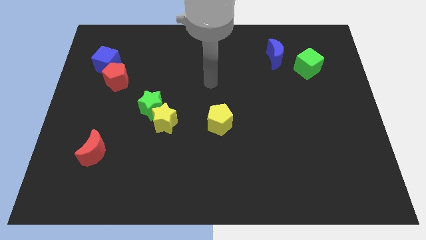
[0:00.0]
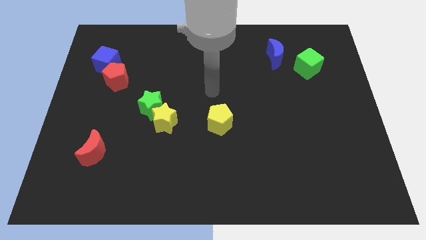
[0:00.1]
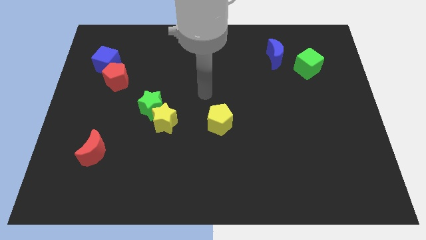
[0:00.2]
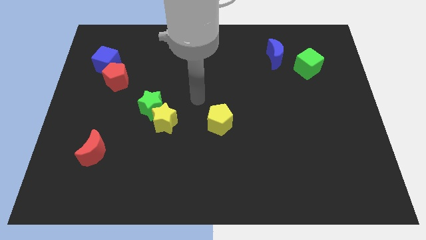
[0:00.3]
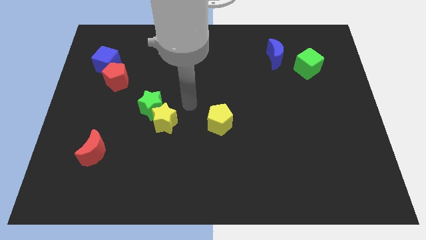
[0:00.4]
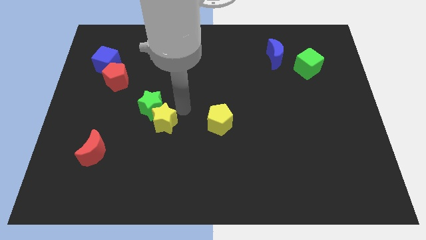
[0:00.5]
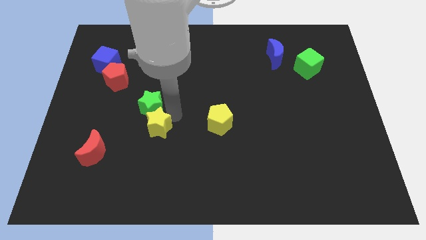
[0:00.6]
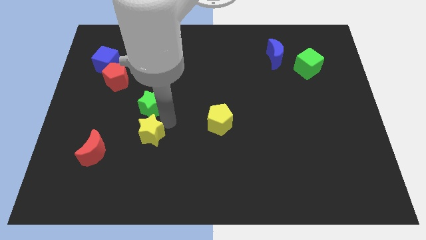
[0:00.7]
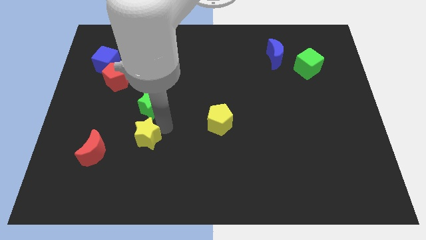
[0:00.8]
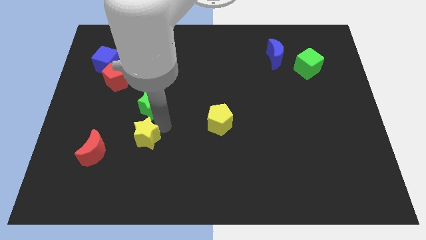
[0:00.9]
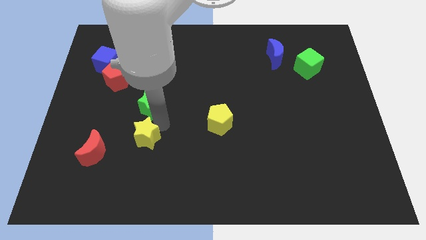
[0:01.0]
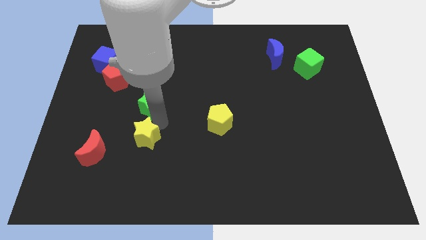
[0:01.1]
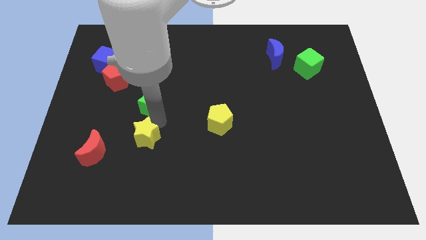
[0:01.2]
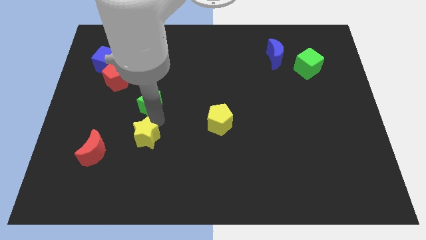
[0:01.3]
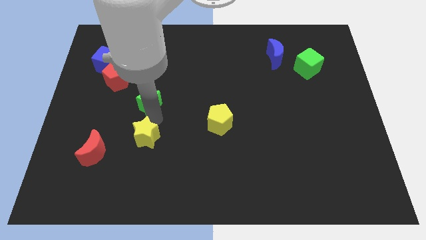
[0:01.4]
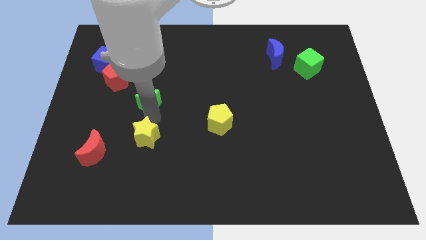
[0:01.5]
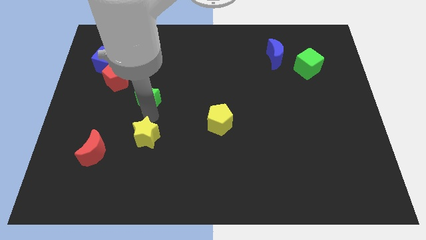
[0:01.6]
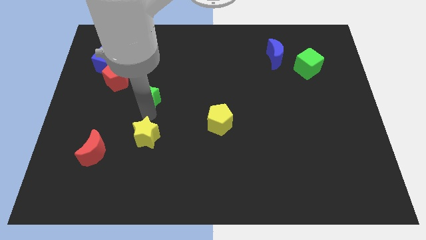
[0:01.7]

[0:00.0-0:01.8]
pull the green star apart from the yellow star

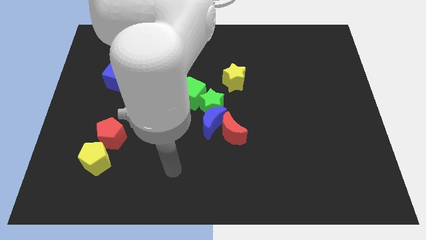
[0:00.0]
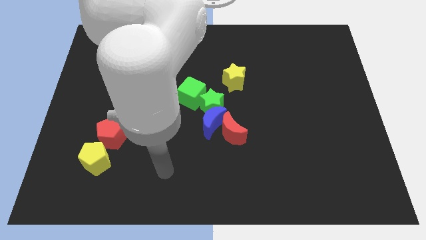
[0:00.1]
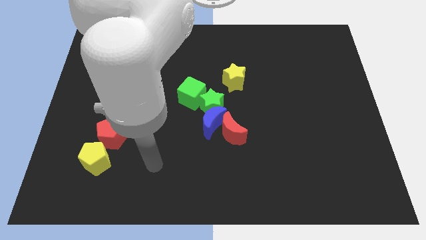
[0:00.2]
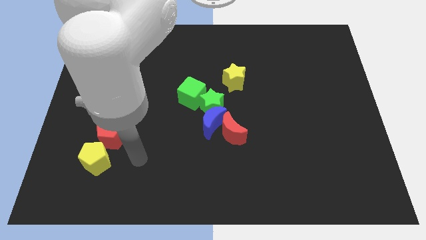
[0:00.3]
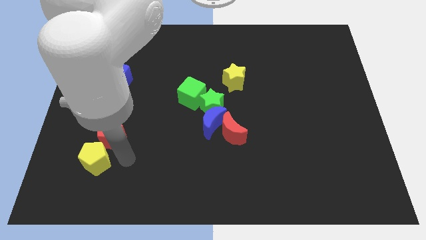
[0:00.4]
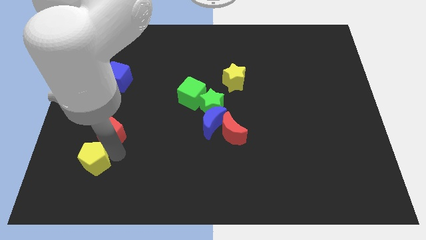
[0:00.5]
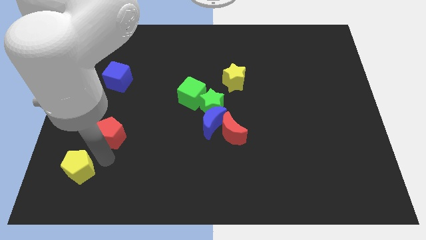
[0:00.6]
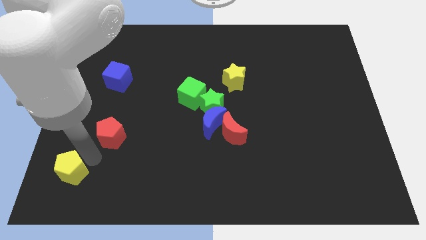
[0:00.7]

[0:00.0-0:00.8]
pull the red pentagon apart from the yellow pentagon

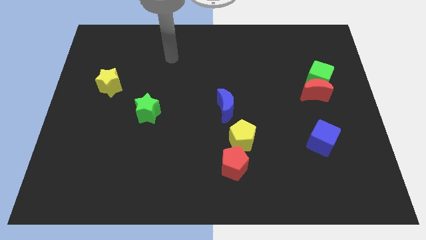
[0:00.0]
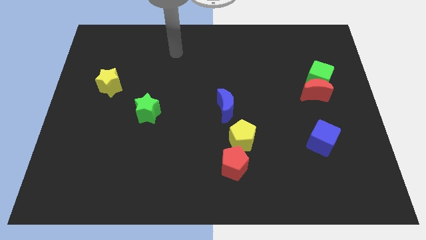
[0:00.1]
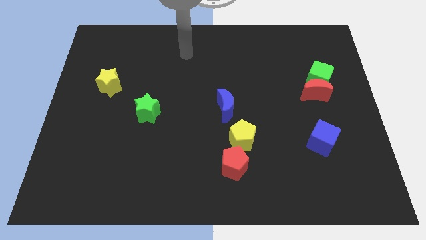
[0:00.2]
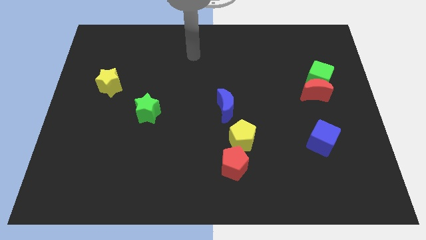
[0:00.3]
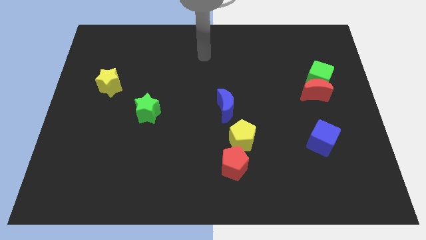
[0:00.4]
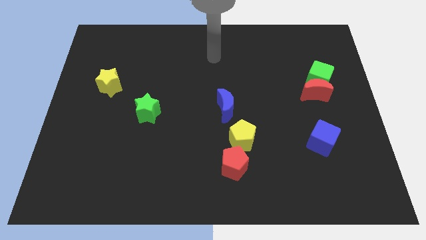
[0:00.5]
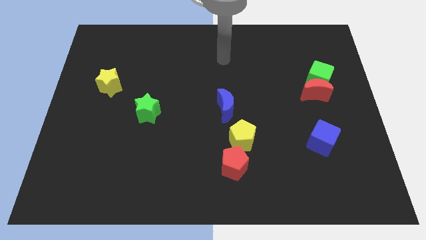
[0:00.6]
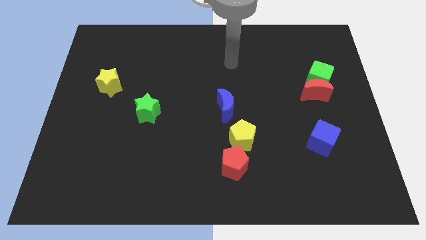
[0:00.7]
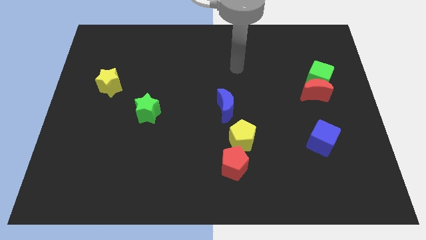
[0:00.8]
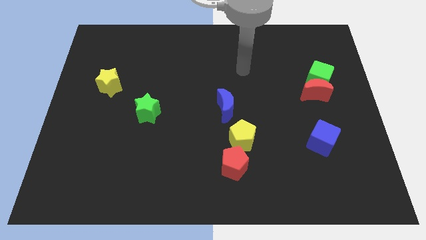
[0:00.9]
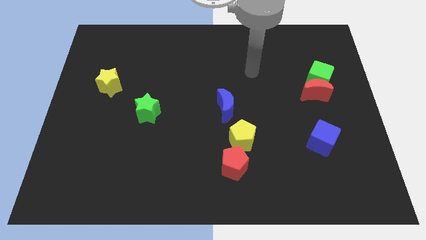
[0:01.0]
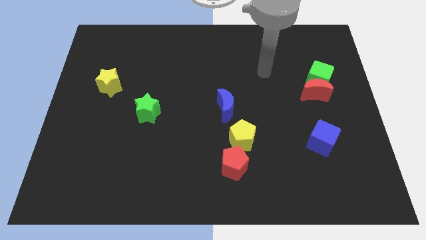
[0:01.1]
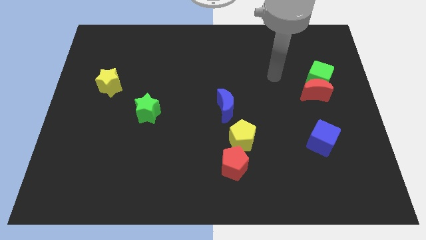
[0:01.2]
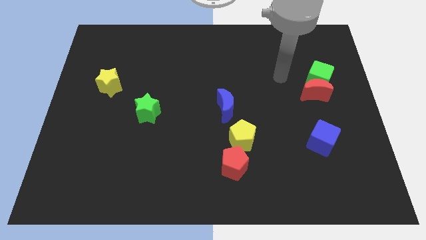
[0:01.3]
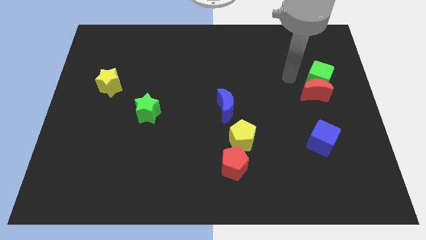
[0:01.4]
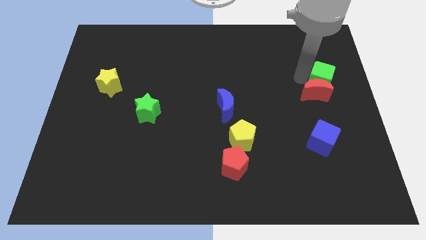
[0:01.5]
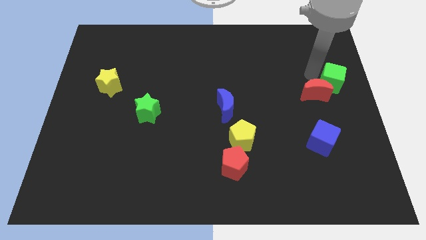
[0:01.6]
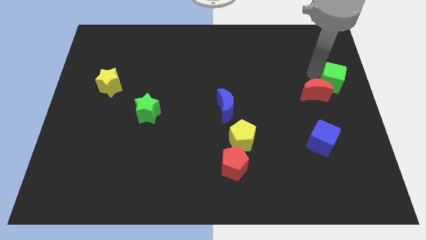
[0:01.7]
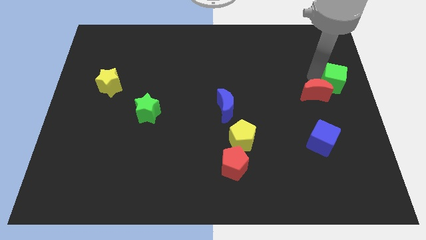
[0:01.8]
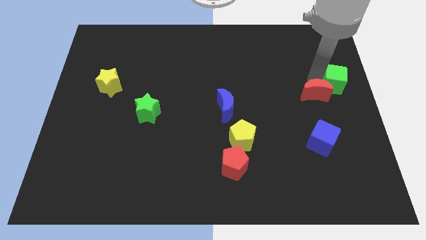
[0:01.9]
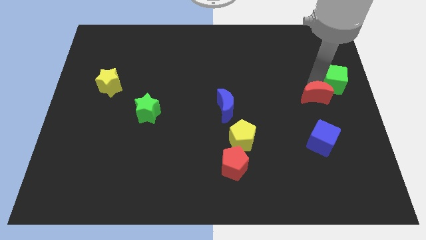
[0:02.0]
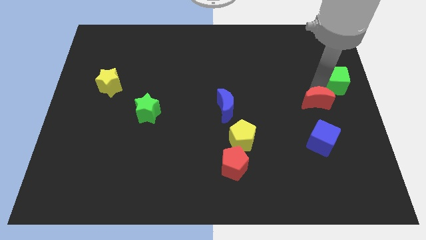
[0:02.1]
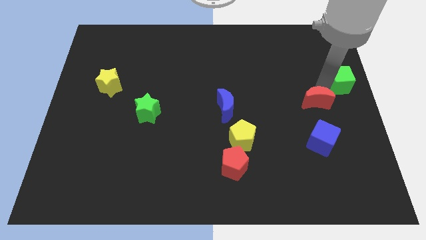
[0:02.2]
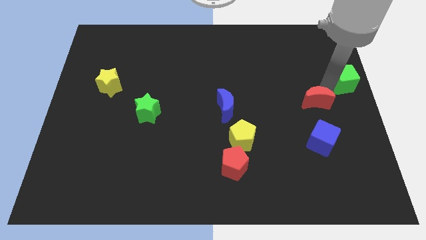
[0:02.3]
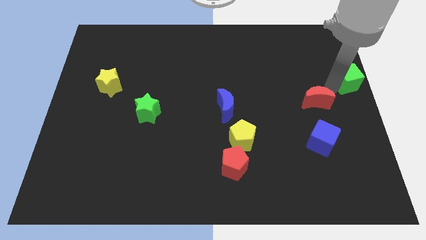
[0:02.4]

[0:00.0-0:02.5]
separate the red moon from the green cube

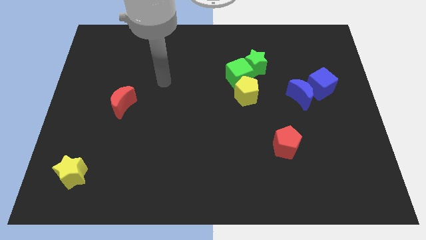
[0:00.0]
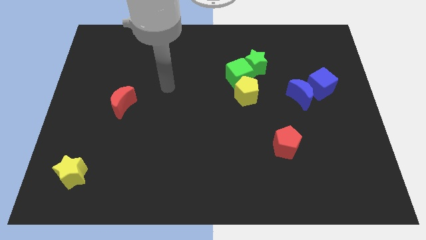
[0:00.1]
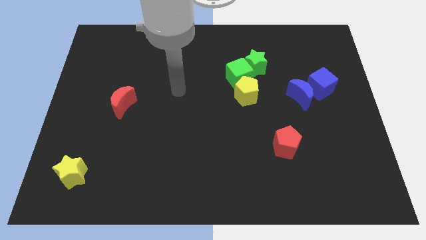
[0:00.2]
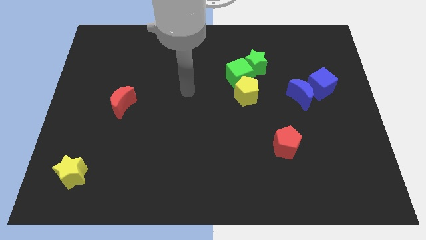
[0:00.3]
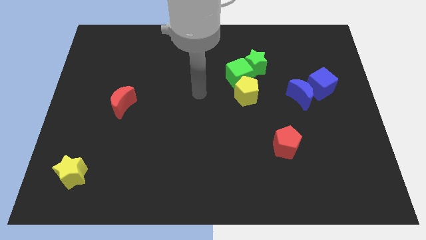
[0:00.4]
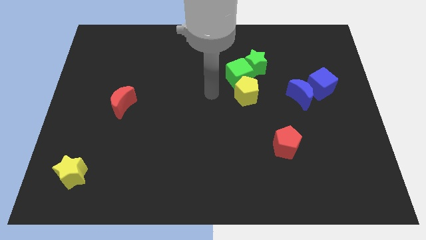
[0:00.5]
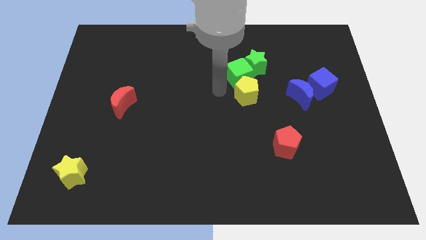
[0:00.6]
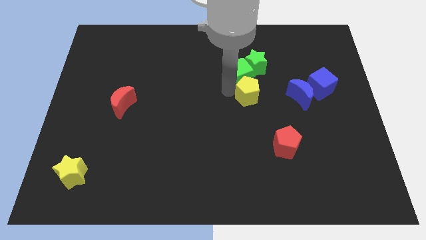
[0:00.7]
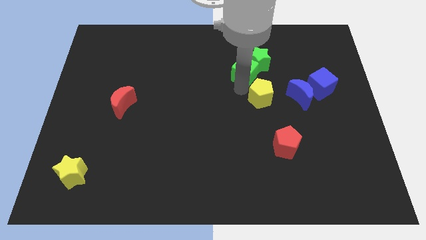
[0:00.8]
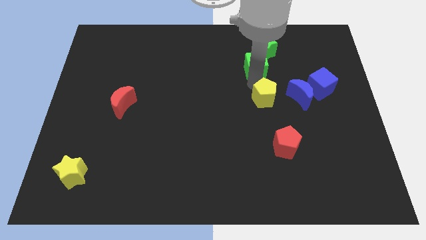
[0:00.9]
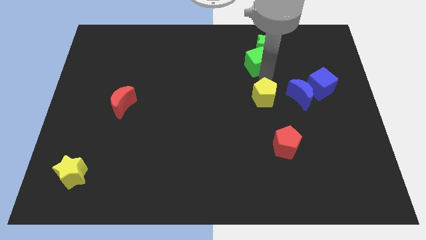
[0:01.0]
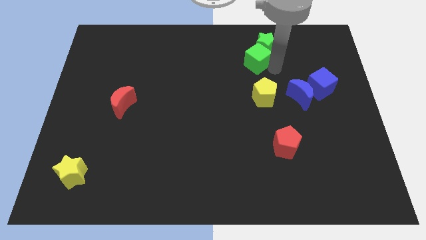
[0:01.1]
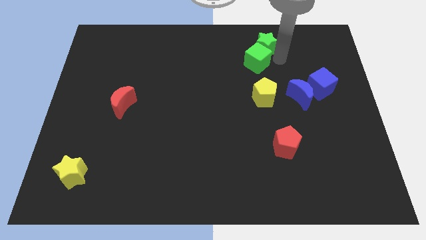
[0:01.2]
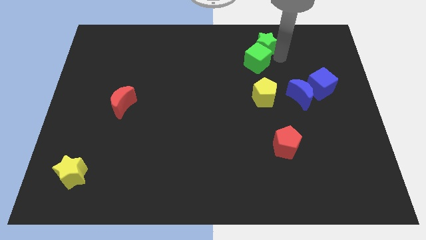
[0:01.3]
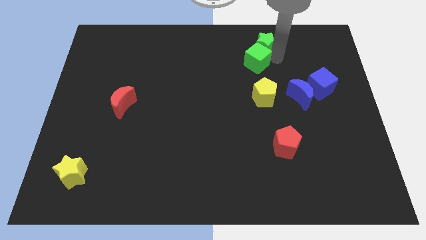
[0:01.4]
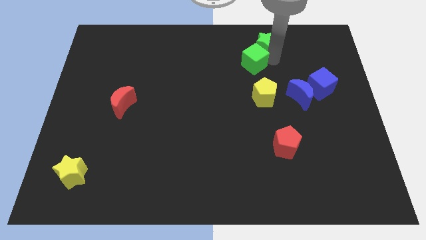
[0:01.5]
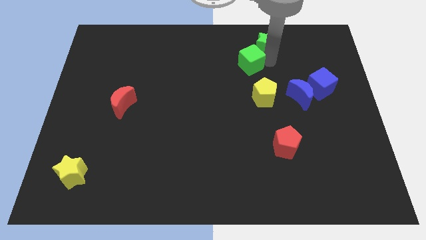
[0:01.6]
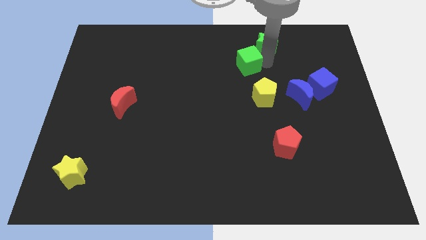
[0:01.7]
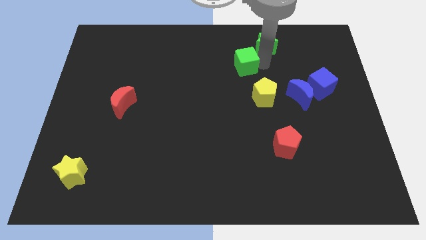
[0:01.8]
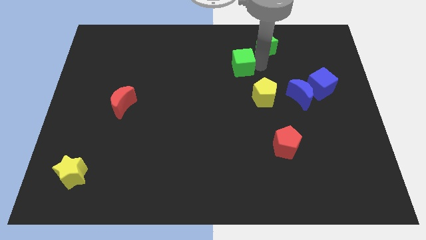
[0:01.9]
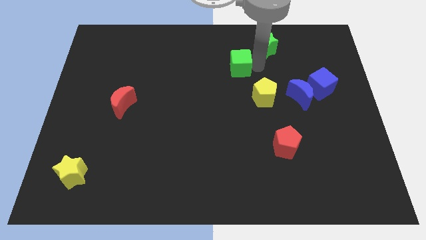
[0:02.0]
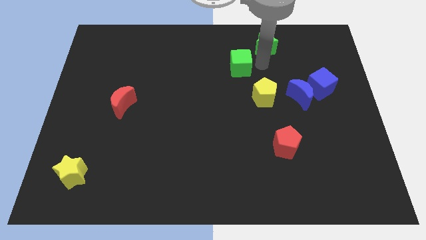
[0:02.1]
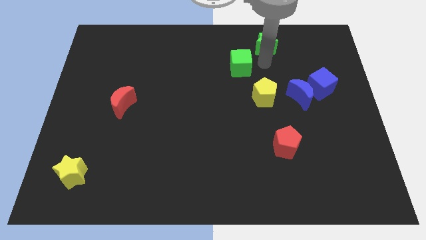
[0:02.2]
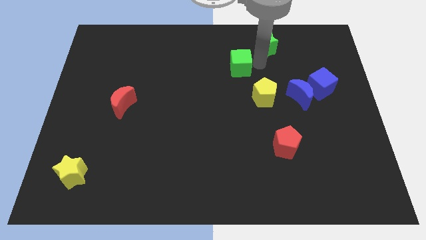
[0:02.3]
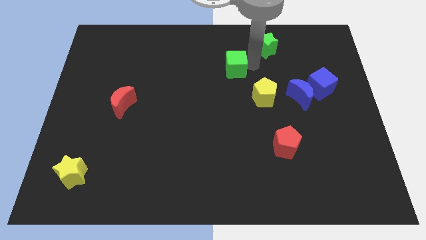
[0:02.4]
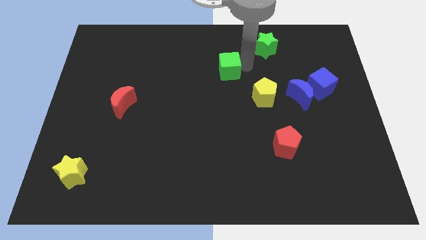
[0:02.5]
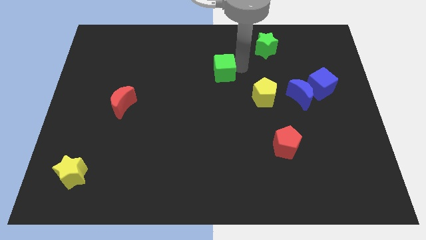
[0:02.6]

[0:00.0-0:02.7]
pull the green cube apart from the green star and yellow pentagon

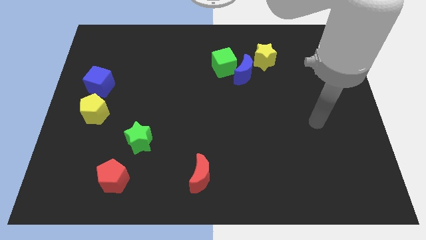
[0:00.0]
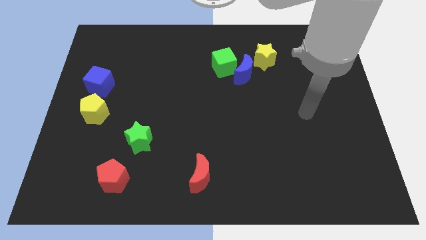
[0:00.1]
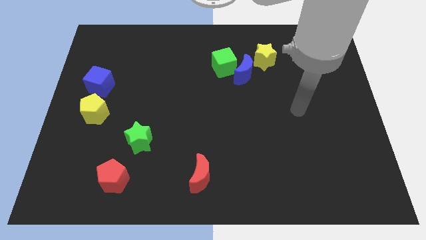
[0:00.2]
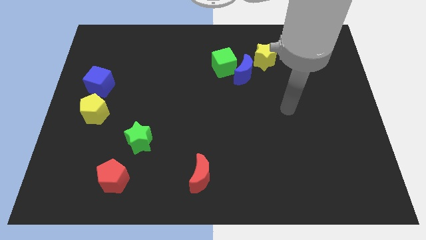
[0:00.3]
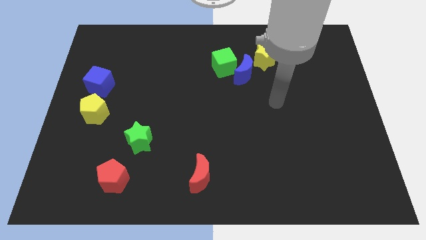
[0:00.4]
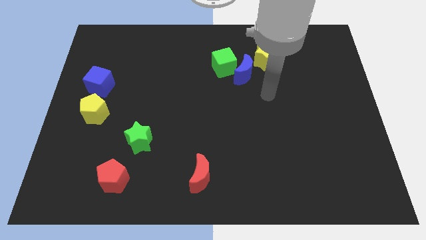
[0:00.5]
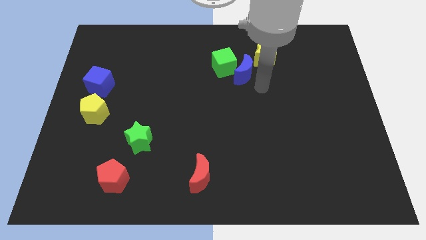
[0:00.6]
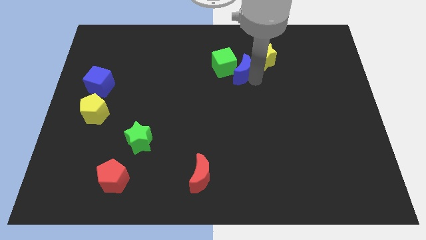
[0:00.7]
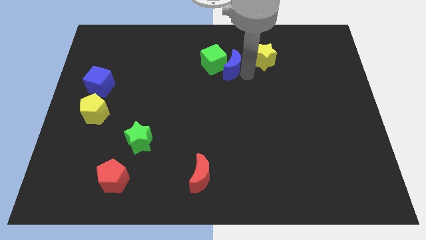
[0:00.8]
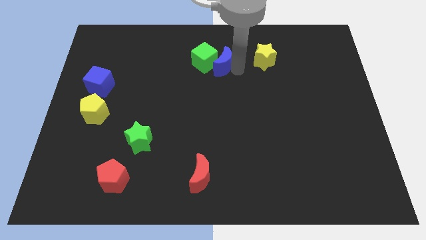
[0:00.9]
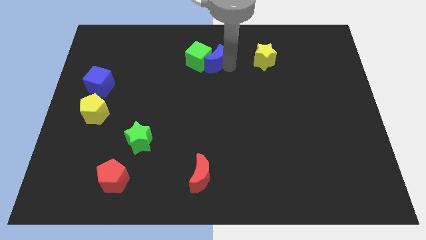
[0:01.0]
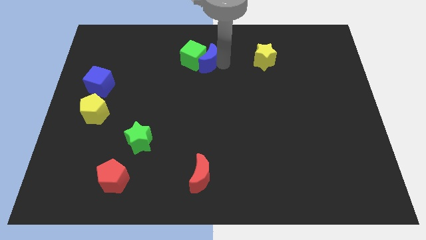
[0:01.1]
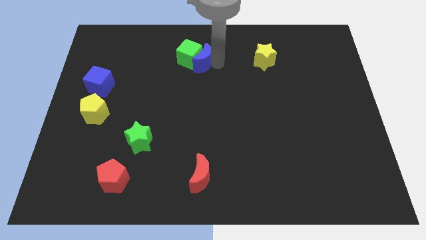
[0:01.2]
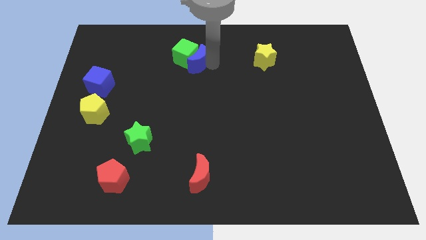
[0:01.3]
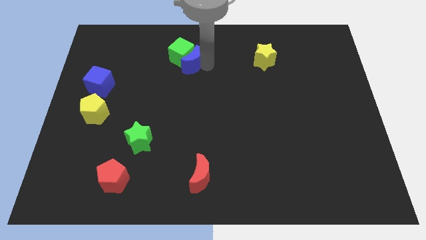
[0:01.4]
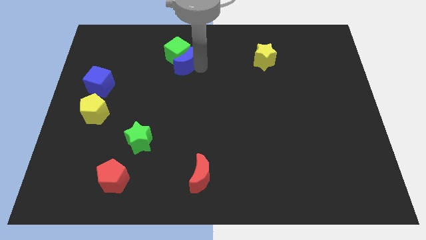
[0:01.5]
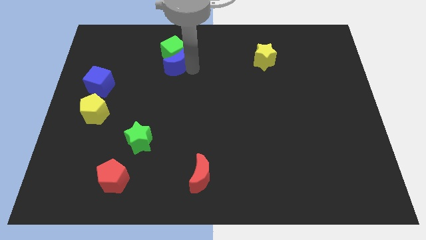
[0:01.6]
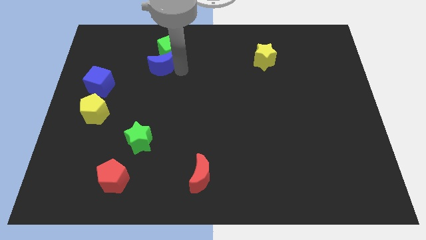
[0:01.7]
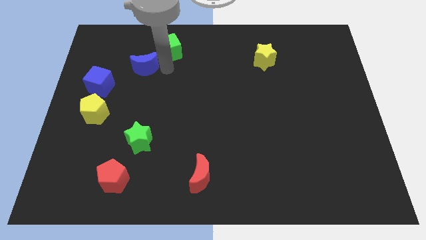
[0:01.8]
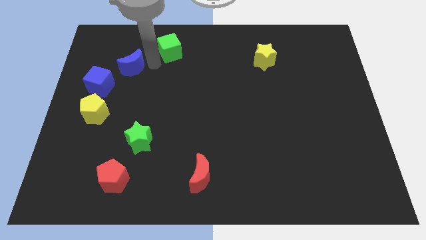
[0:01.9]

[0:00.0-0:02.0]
pull the green cube apart from the blue moon
